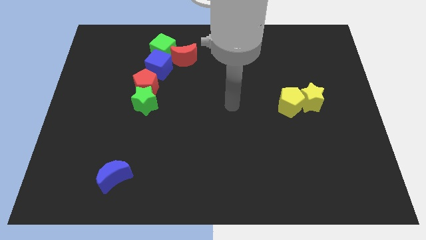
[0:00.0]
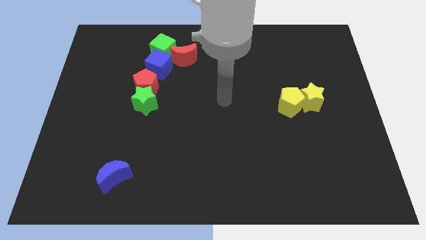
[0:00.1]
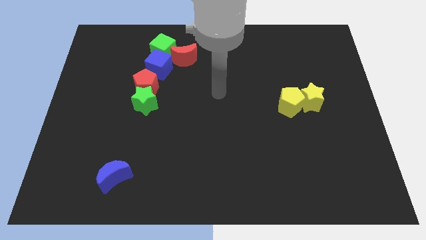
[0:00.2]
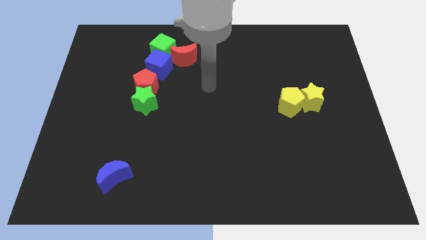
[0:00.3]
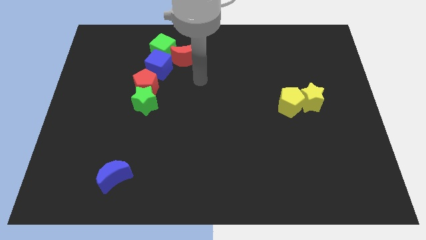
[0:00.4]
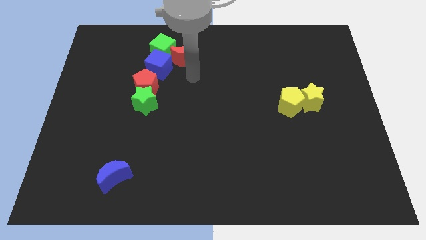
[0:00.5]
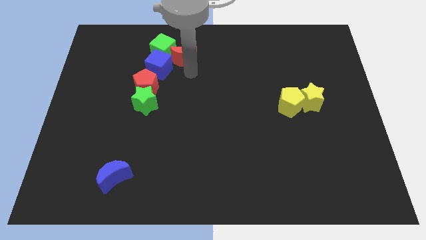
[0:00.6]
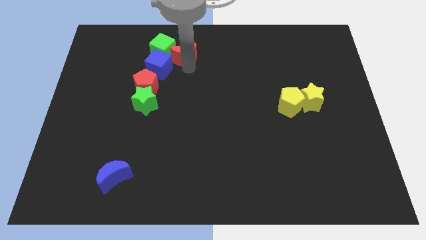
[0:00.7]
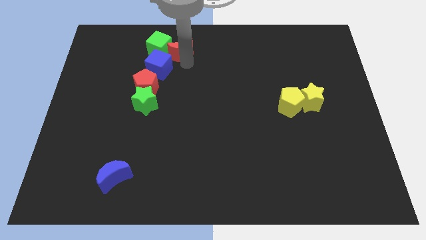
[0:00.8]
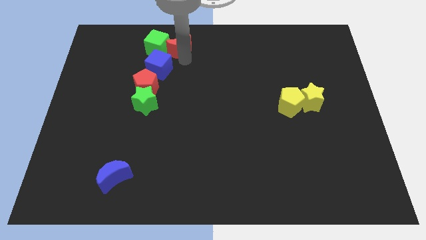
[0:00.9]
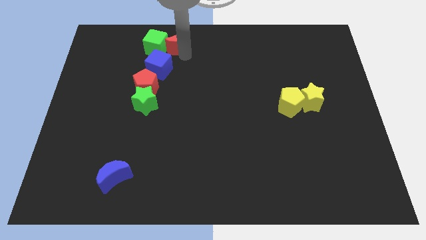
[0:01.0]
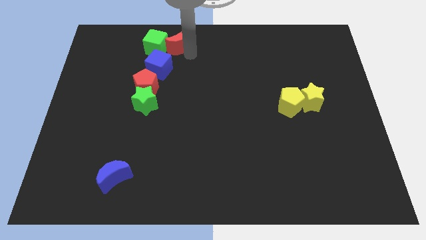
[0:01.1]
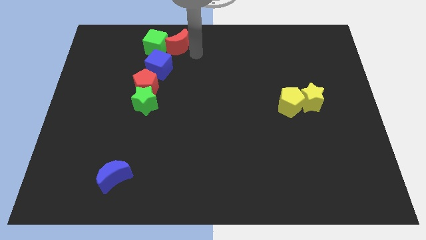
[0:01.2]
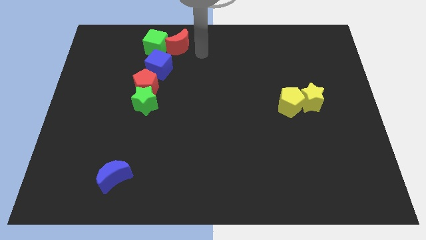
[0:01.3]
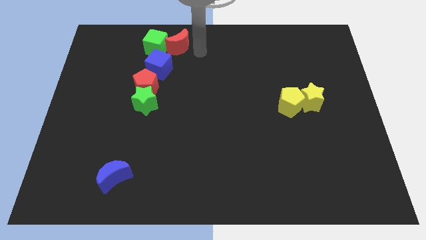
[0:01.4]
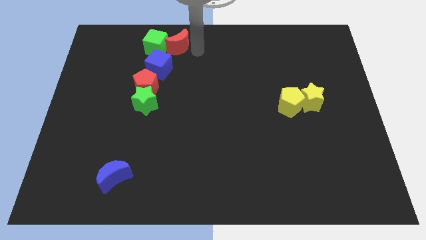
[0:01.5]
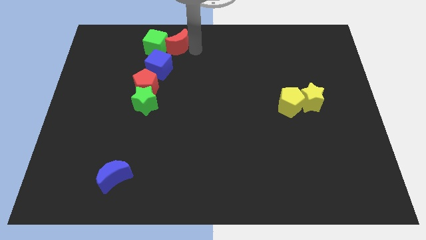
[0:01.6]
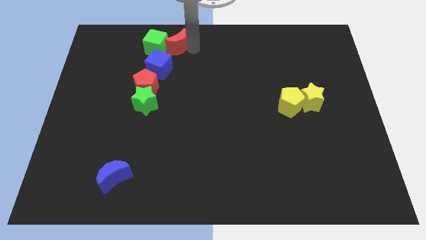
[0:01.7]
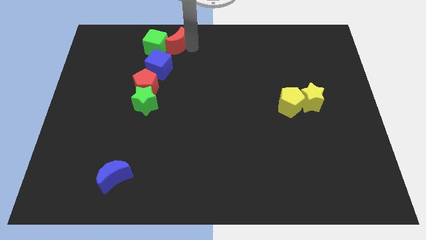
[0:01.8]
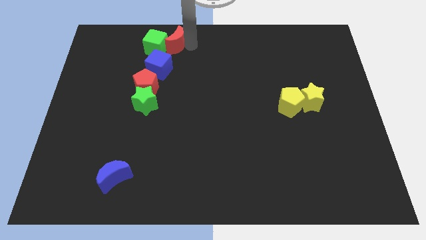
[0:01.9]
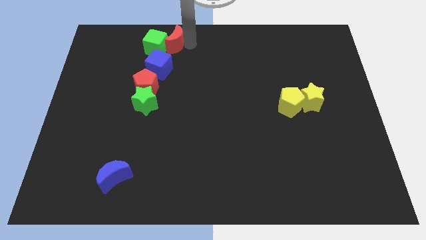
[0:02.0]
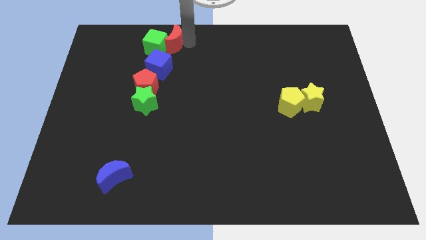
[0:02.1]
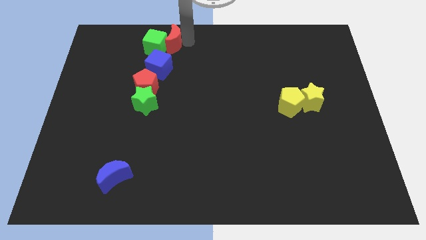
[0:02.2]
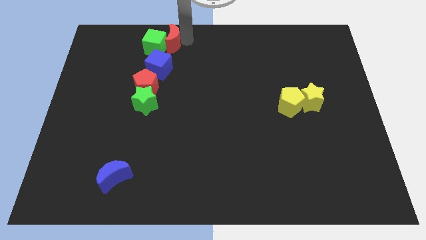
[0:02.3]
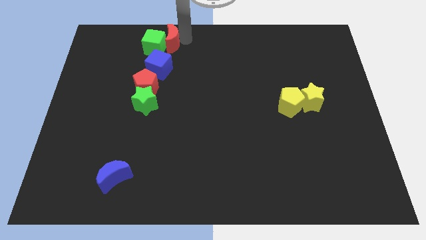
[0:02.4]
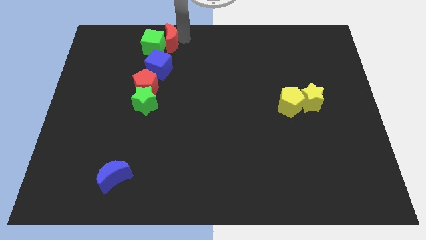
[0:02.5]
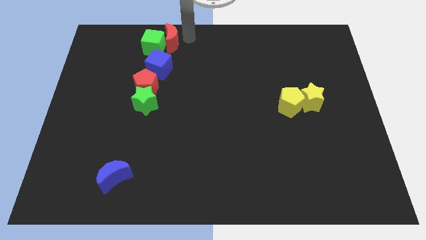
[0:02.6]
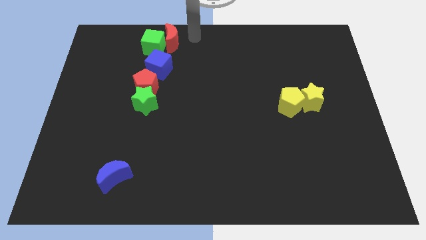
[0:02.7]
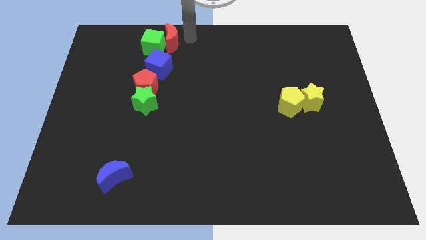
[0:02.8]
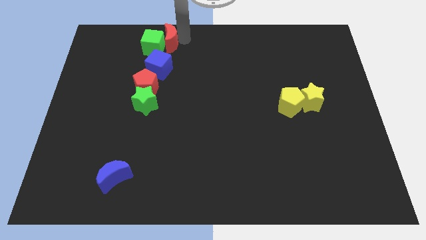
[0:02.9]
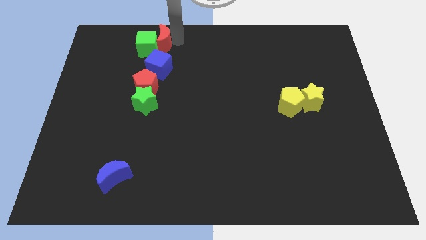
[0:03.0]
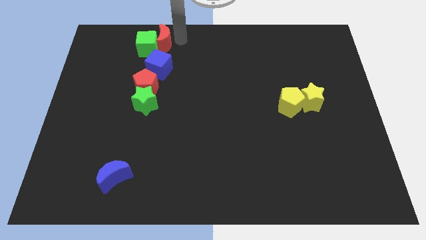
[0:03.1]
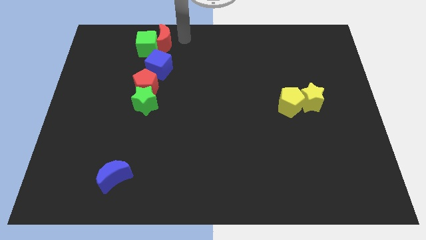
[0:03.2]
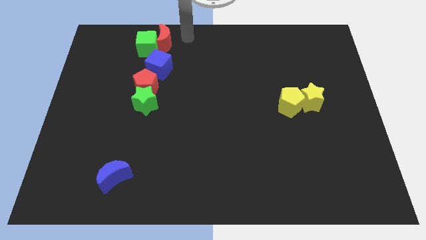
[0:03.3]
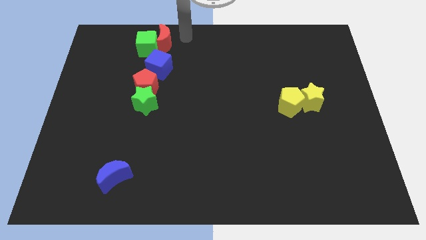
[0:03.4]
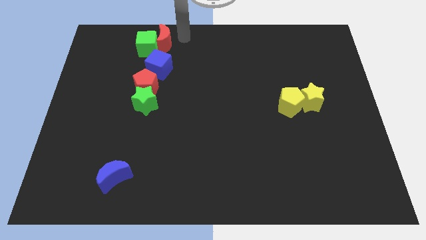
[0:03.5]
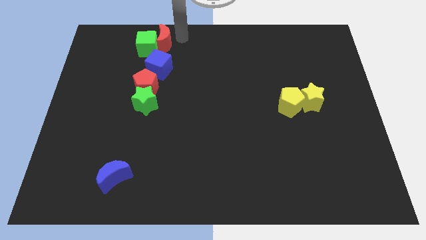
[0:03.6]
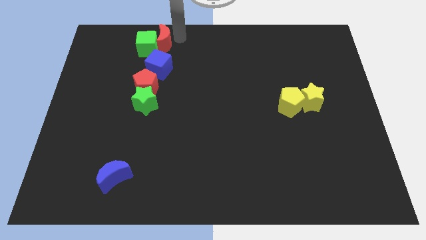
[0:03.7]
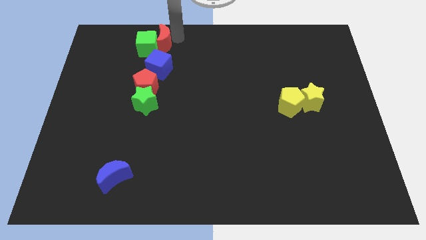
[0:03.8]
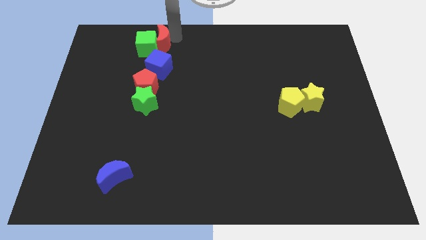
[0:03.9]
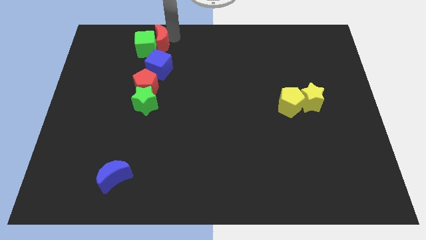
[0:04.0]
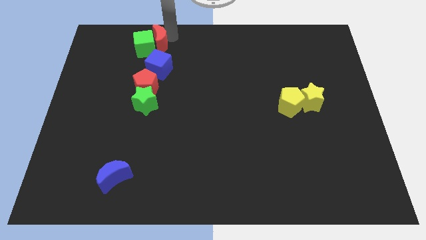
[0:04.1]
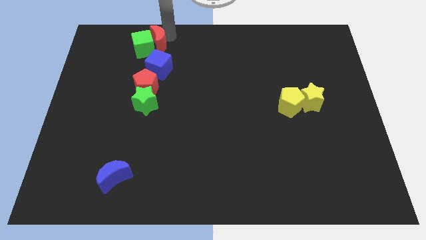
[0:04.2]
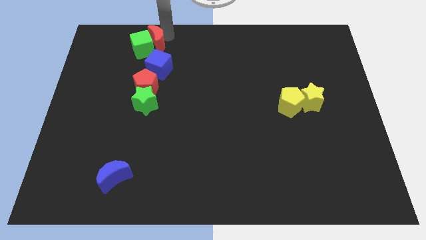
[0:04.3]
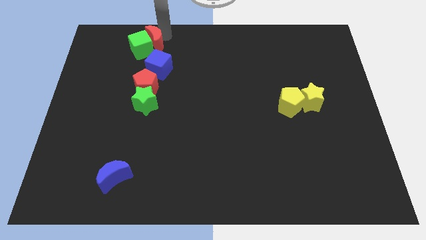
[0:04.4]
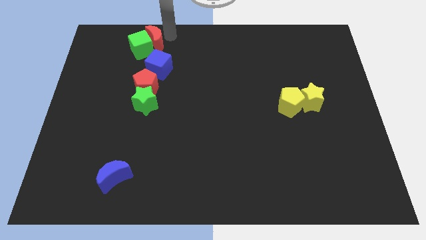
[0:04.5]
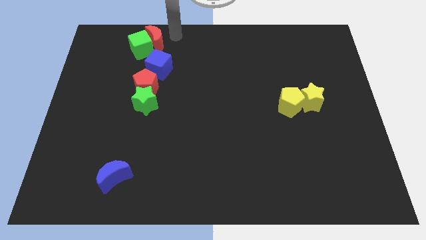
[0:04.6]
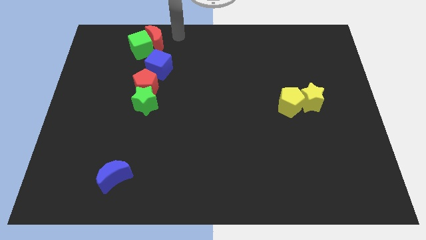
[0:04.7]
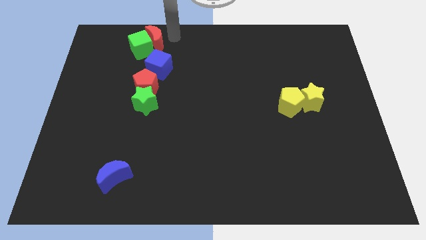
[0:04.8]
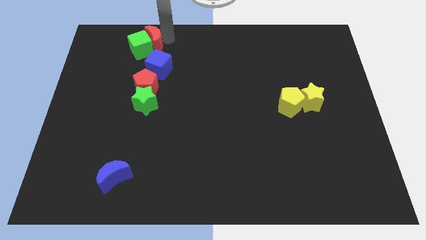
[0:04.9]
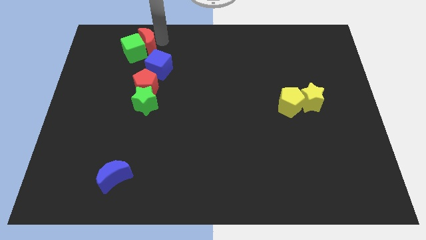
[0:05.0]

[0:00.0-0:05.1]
slightly slide the red moon left

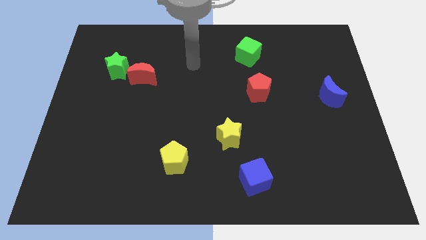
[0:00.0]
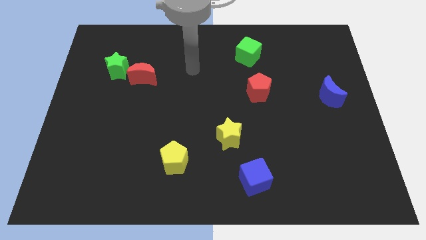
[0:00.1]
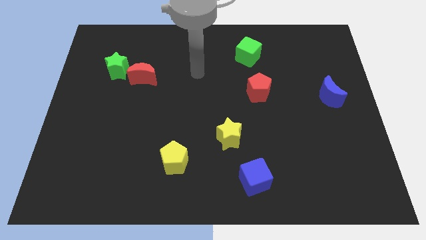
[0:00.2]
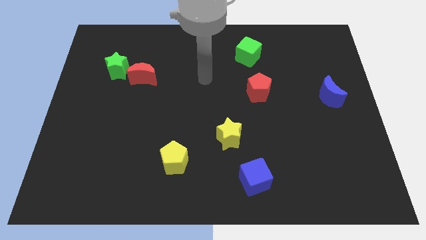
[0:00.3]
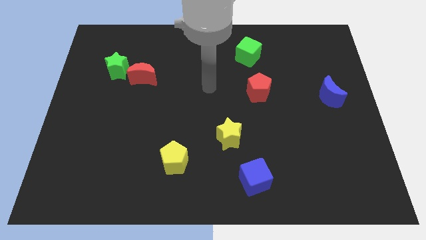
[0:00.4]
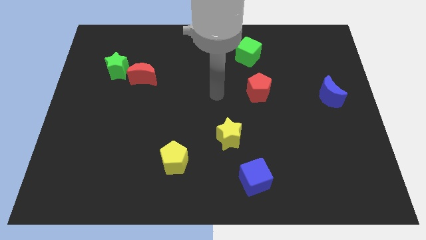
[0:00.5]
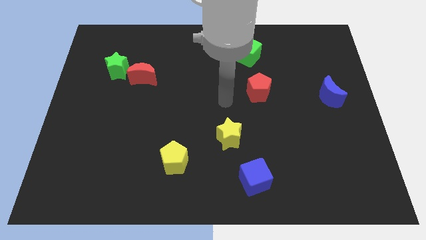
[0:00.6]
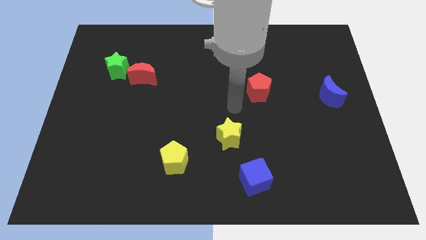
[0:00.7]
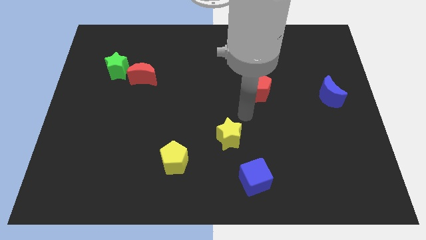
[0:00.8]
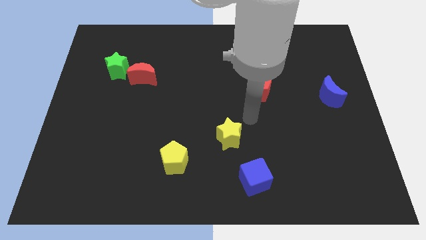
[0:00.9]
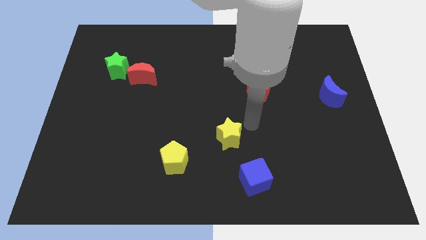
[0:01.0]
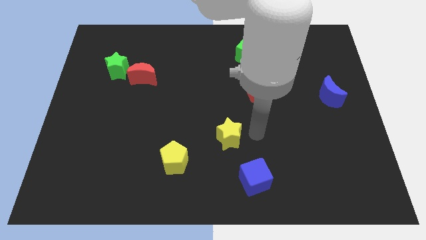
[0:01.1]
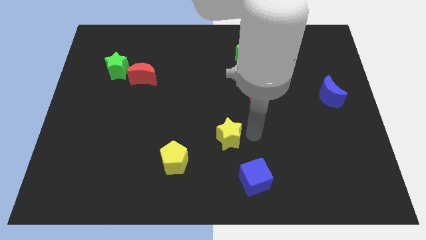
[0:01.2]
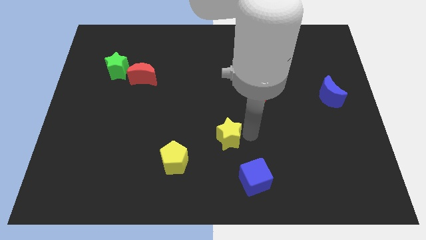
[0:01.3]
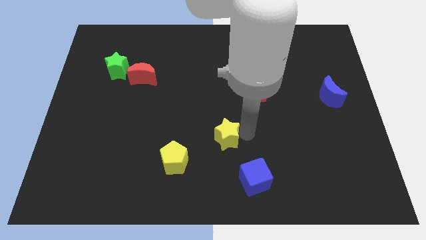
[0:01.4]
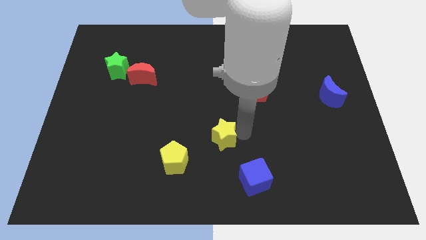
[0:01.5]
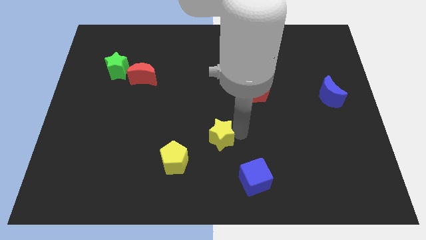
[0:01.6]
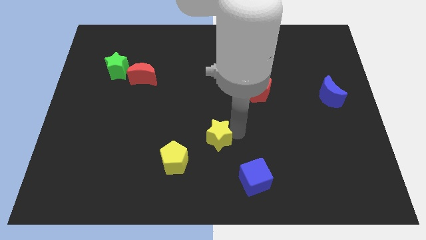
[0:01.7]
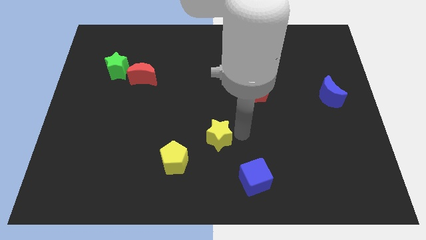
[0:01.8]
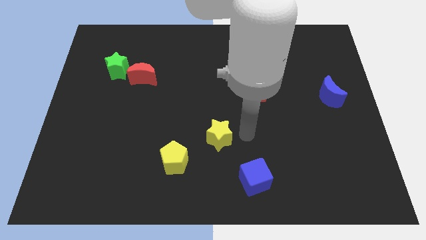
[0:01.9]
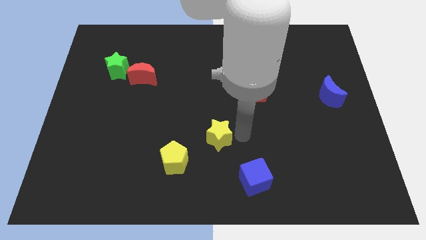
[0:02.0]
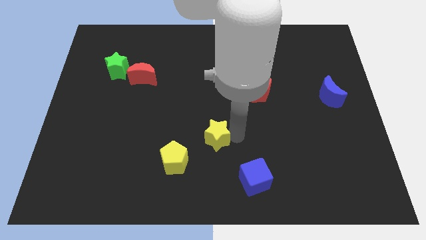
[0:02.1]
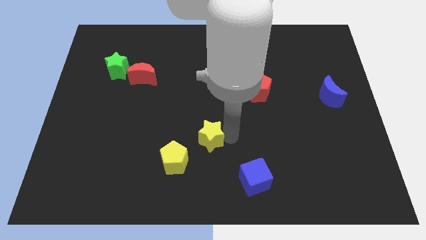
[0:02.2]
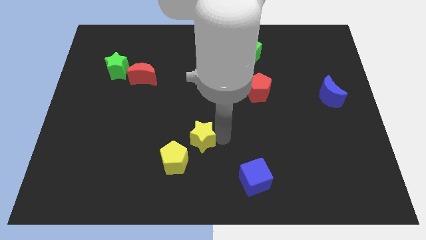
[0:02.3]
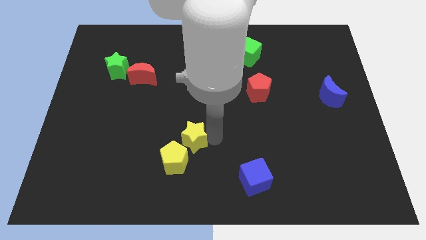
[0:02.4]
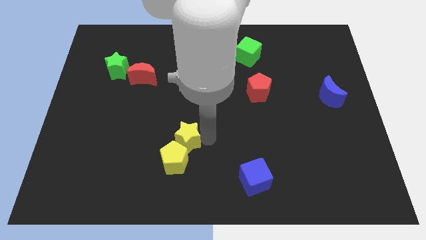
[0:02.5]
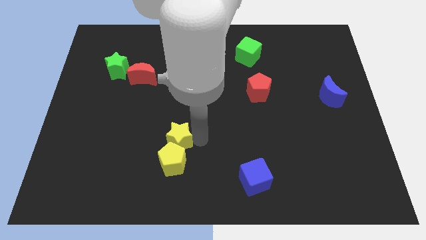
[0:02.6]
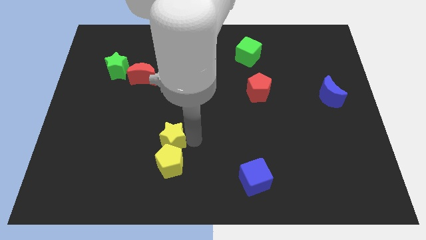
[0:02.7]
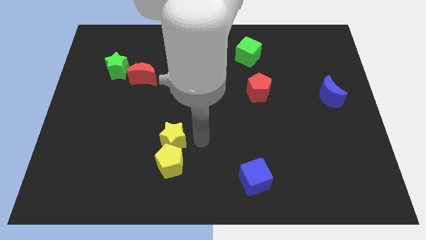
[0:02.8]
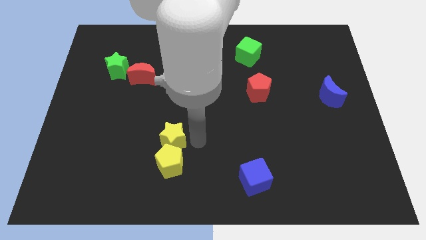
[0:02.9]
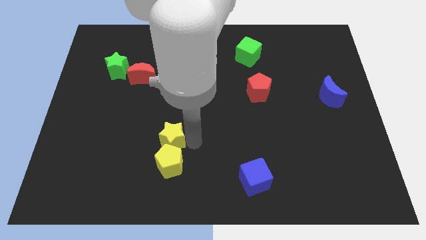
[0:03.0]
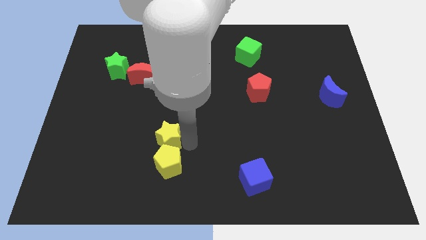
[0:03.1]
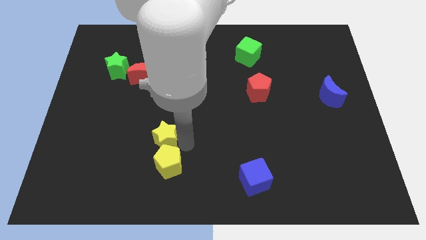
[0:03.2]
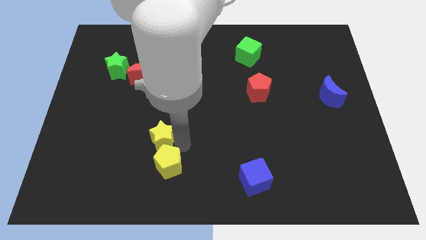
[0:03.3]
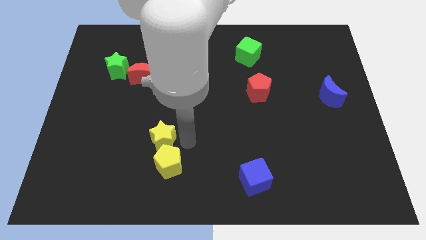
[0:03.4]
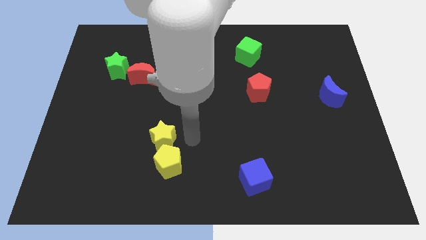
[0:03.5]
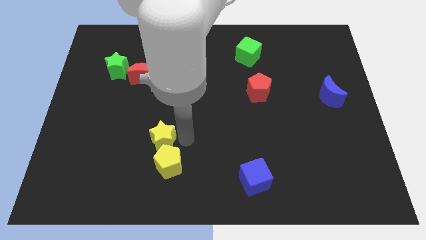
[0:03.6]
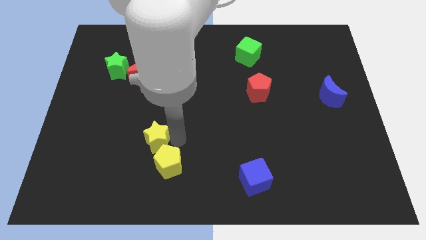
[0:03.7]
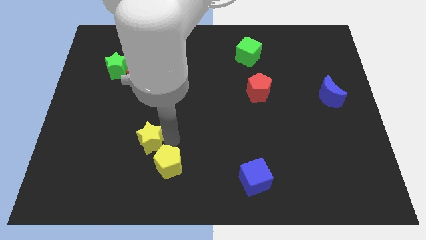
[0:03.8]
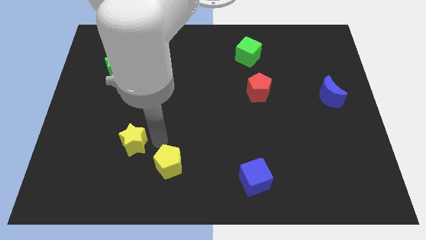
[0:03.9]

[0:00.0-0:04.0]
push the yellow star left
